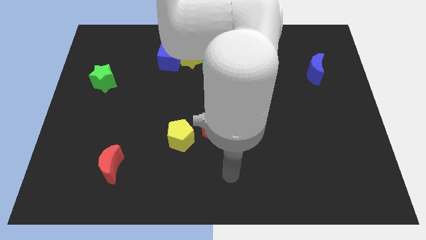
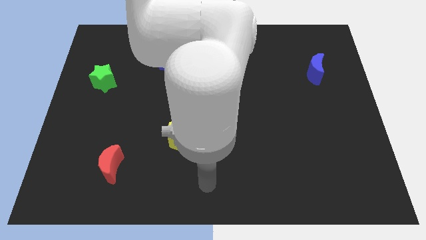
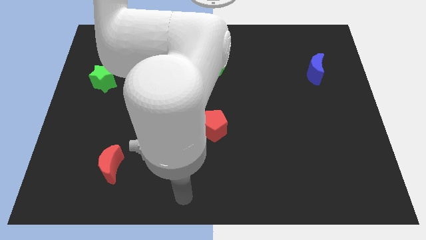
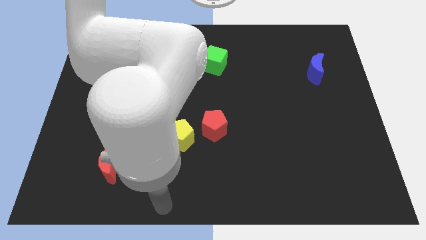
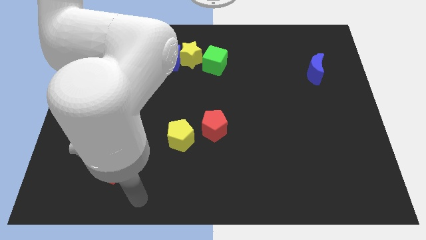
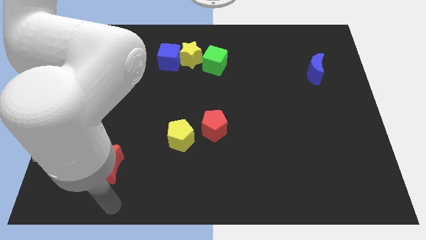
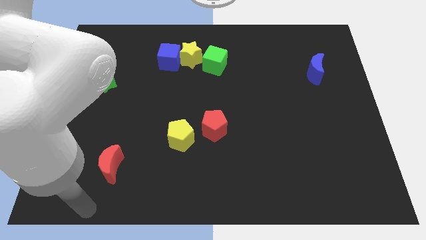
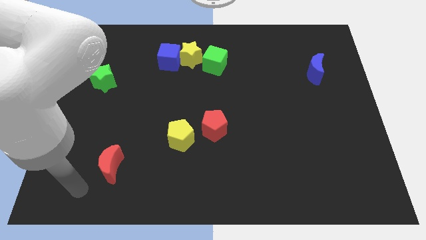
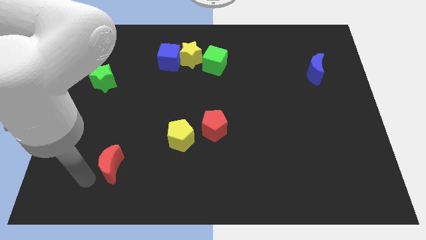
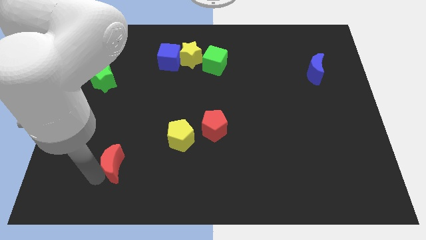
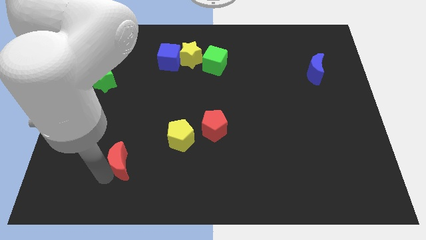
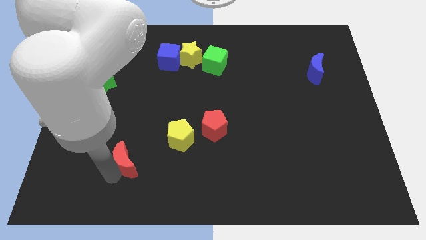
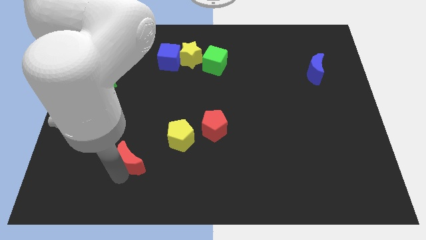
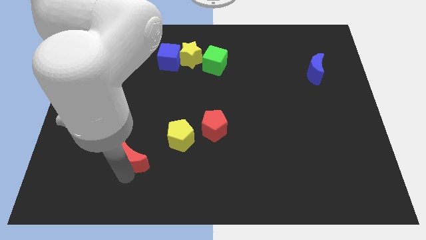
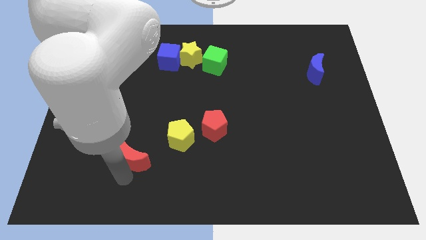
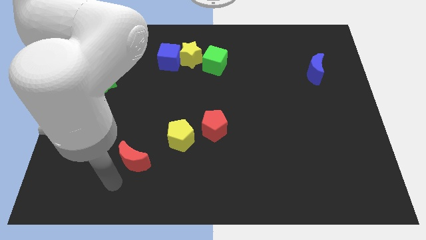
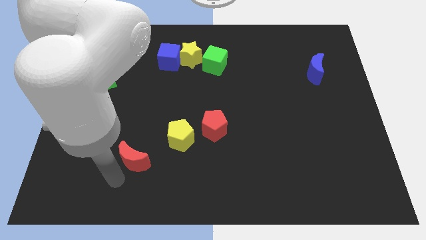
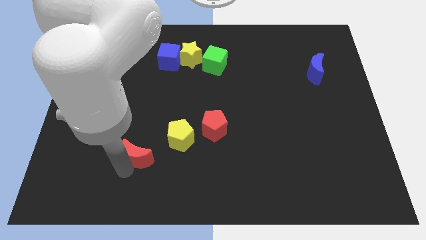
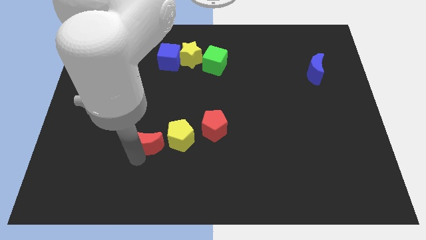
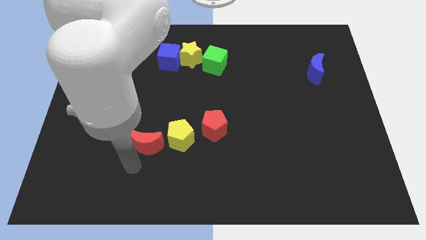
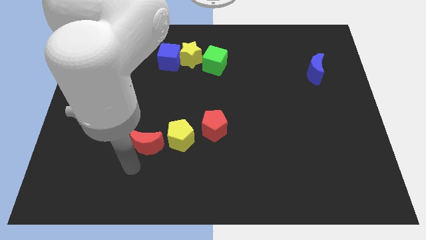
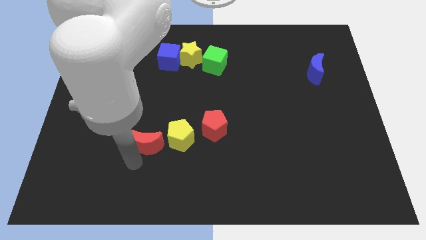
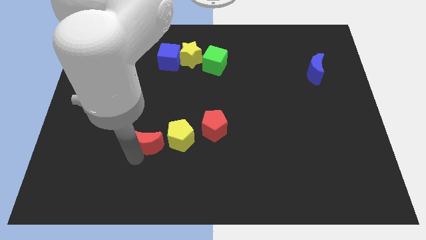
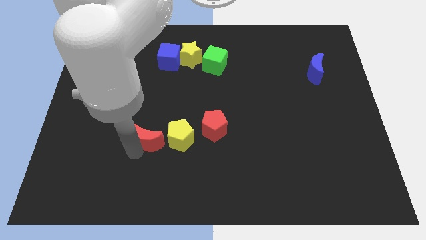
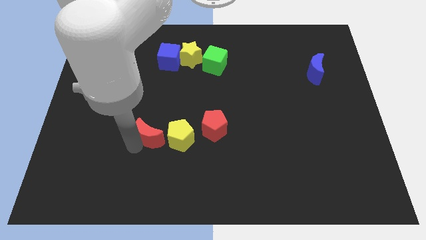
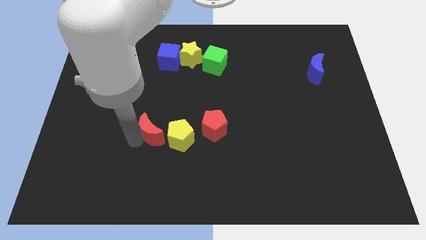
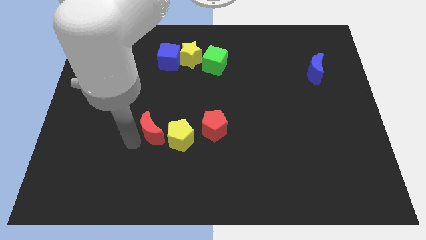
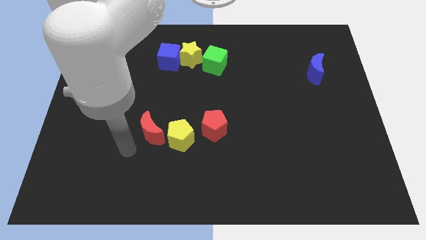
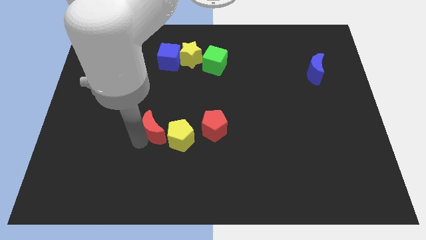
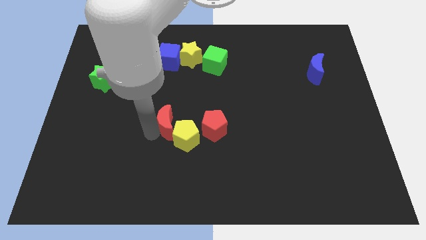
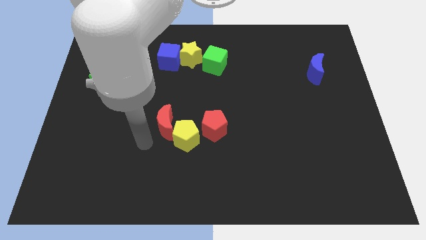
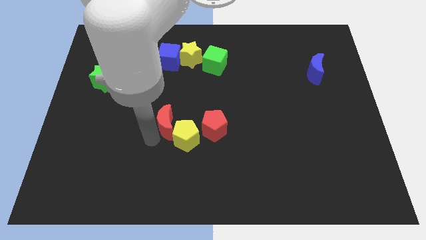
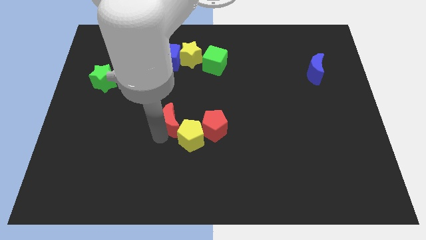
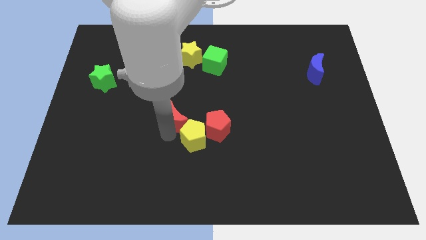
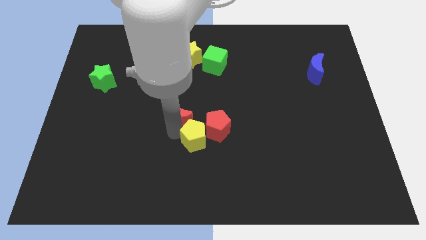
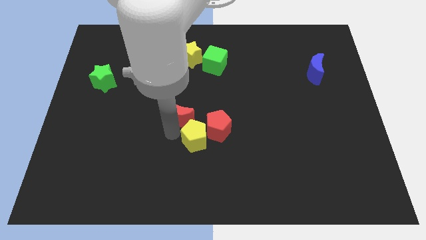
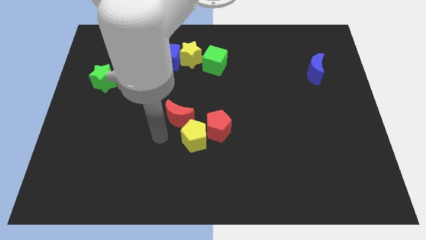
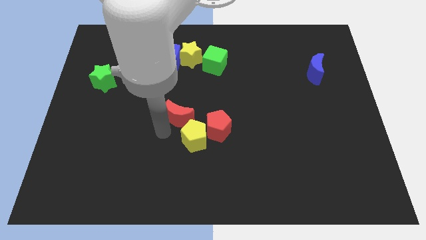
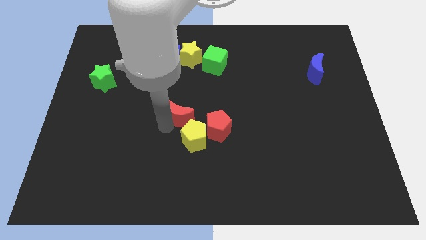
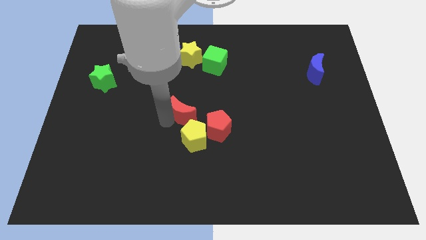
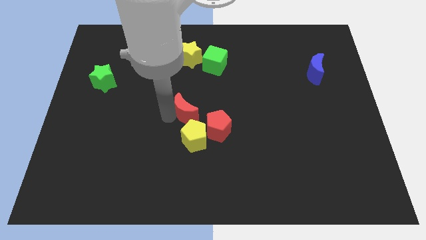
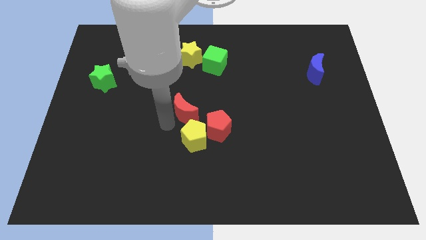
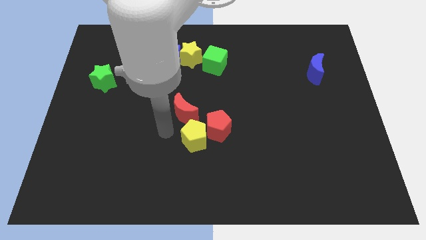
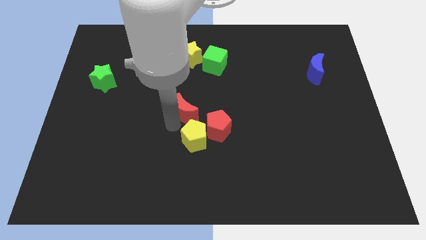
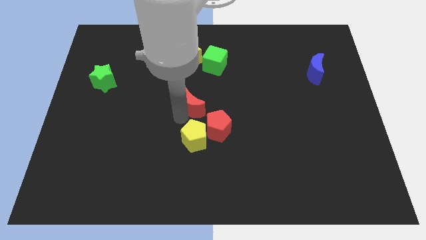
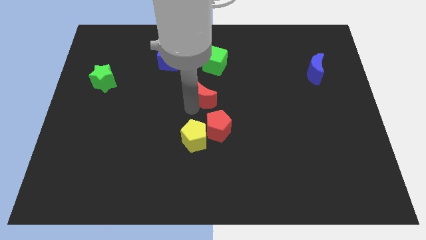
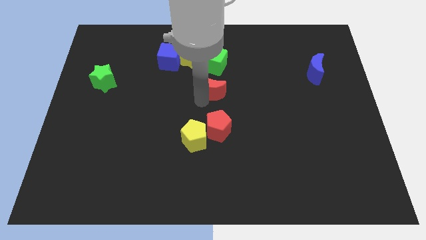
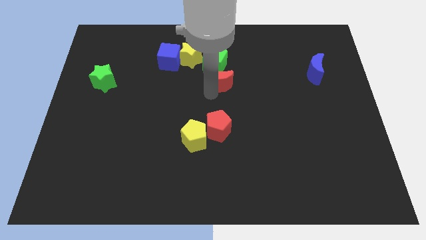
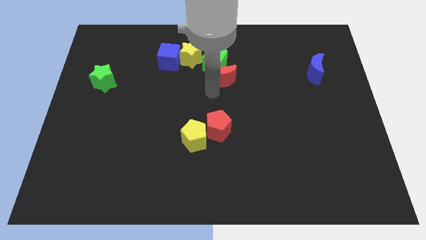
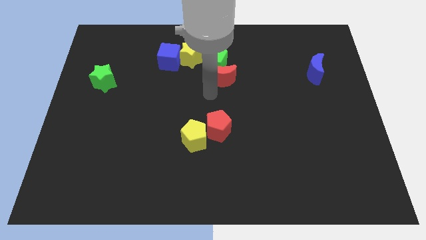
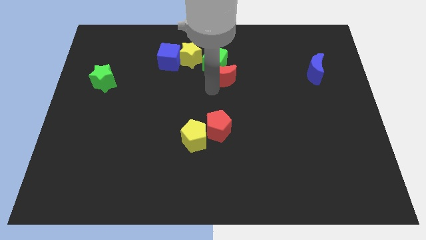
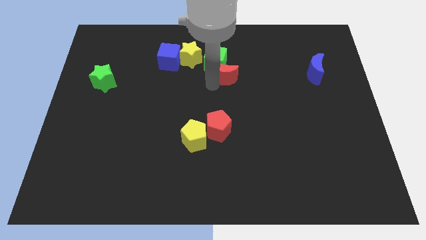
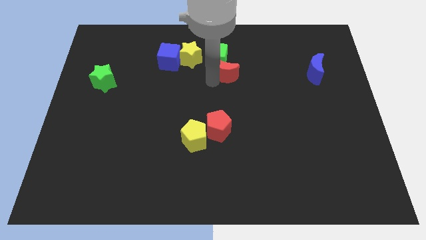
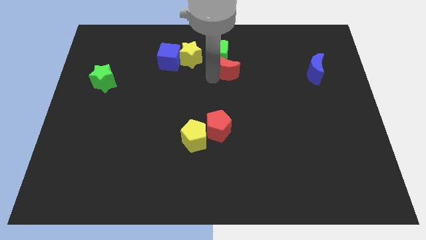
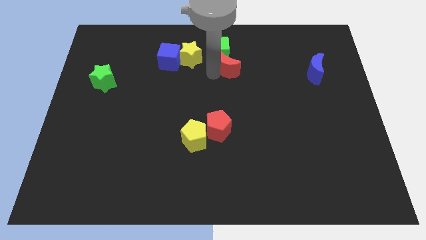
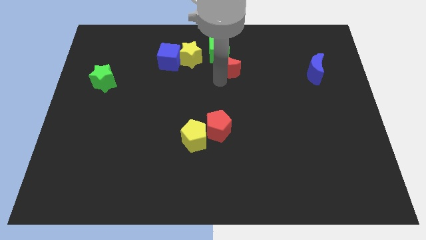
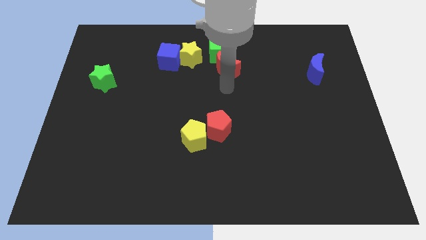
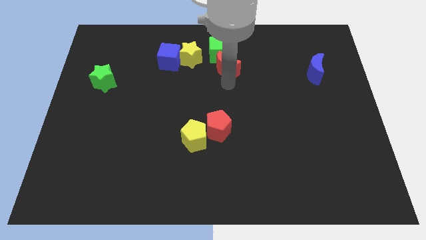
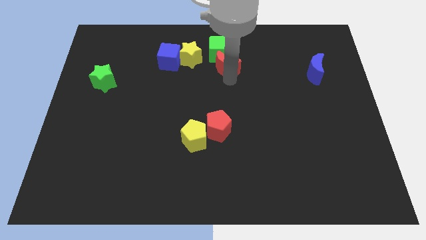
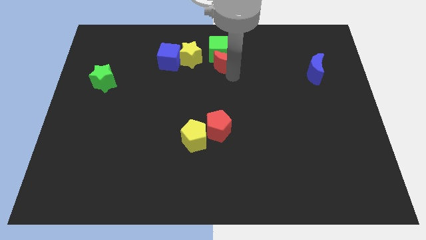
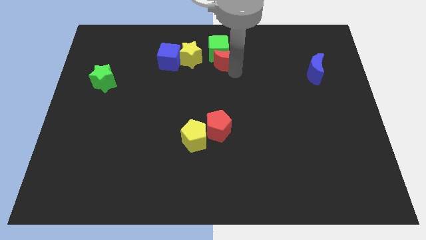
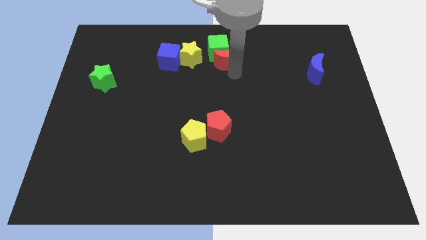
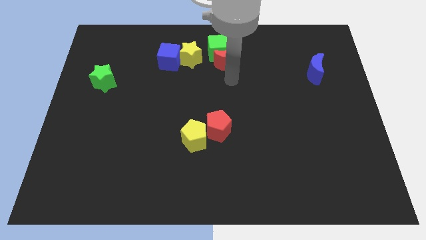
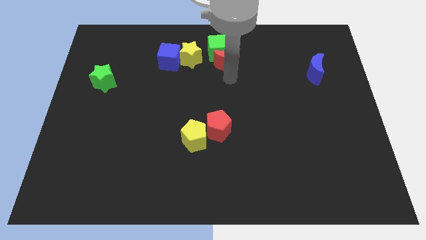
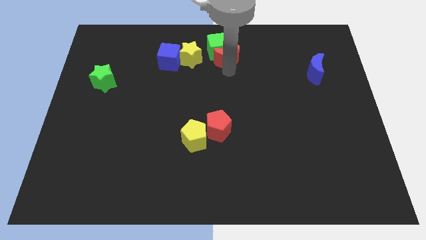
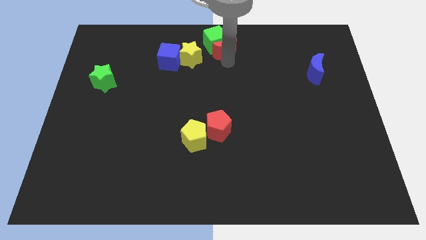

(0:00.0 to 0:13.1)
slide the red moon to the top side
